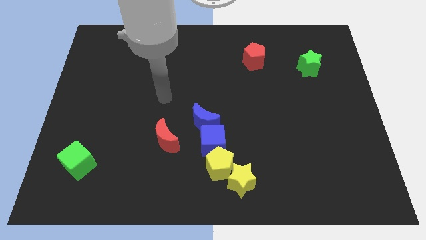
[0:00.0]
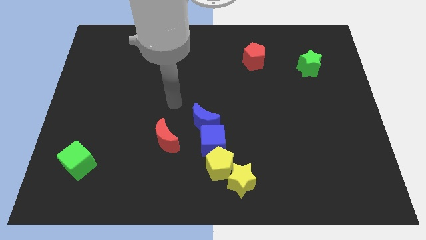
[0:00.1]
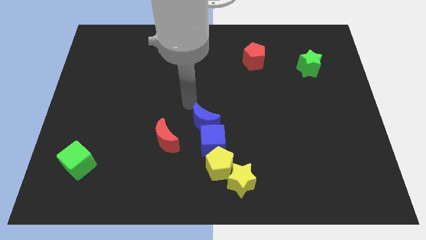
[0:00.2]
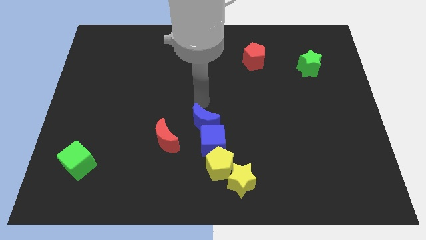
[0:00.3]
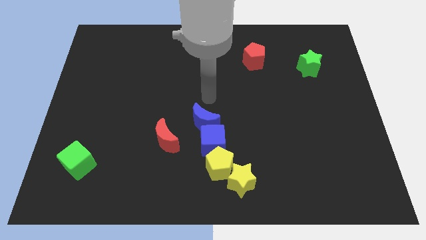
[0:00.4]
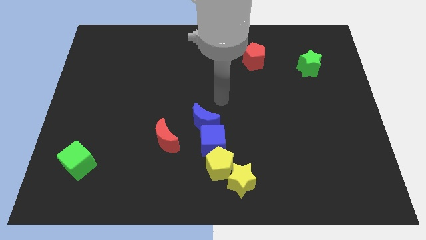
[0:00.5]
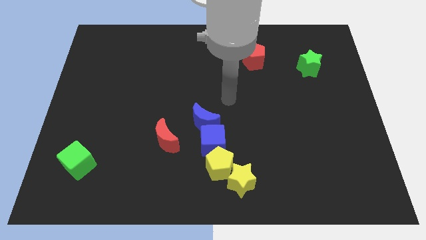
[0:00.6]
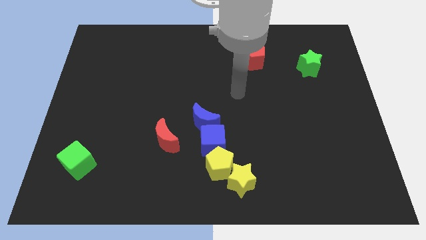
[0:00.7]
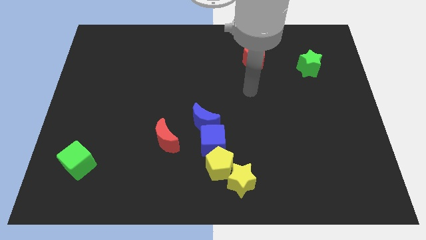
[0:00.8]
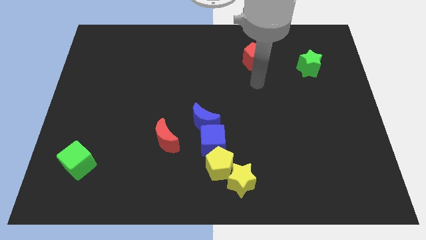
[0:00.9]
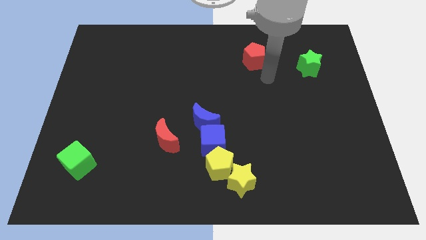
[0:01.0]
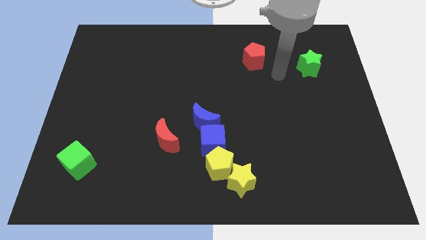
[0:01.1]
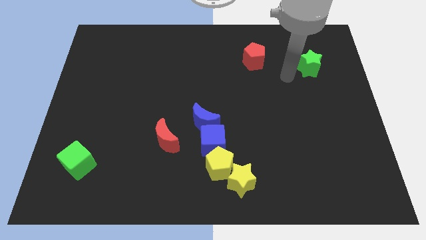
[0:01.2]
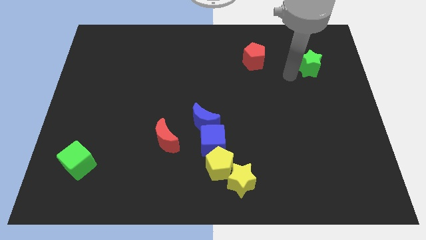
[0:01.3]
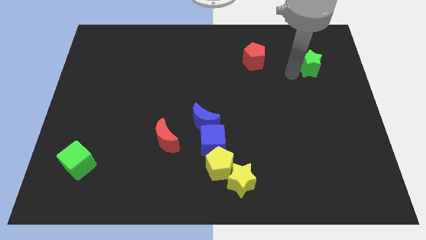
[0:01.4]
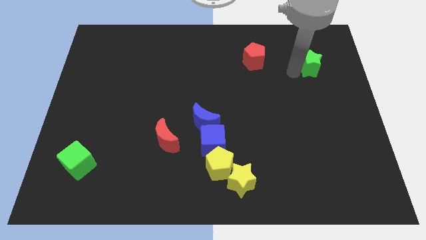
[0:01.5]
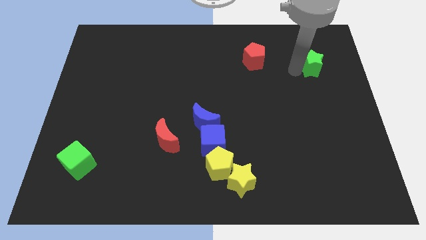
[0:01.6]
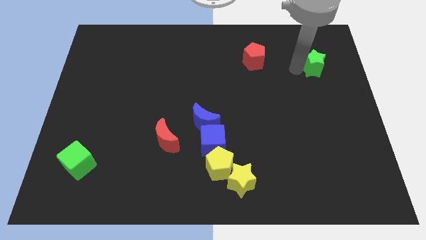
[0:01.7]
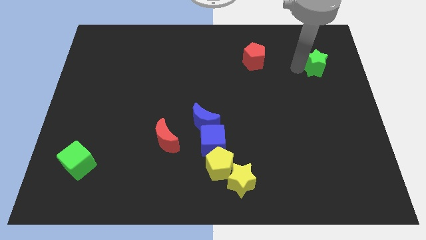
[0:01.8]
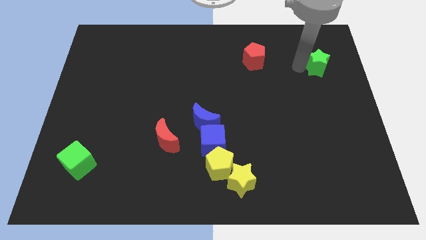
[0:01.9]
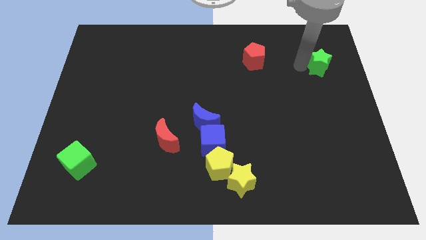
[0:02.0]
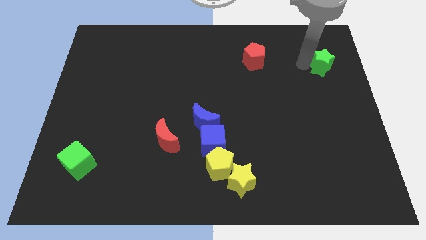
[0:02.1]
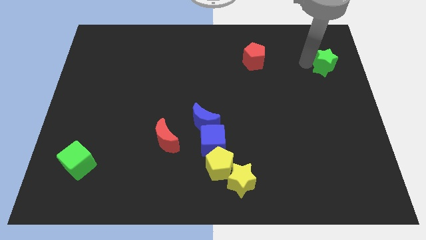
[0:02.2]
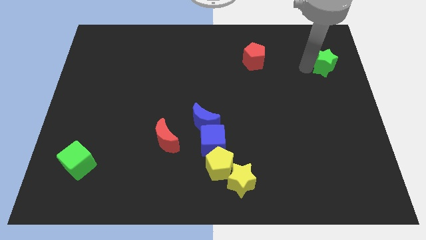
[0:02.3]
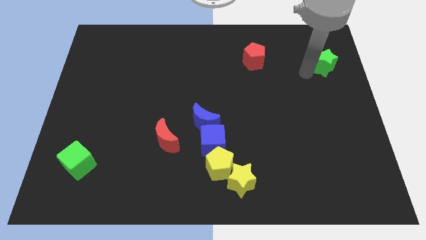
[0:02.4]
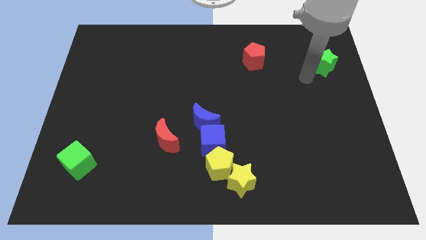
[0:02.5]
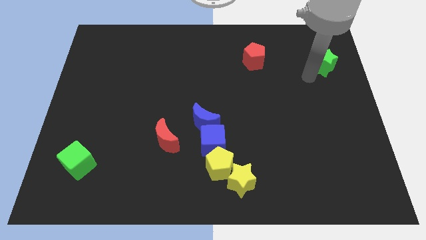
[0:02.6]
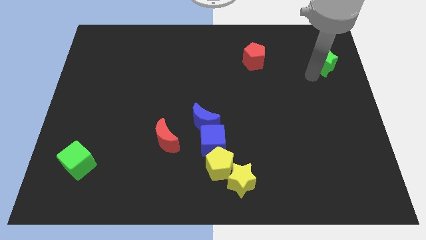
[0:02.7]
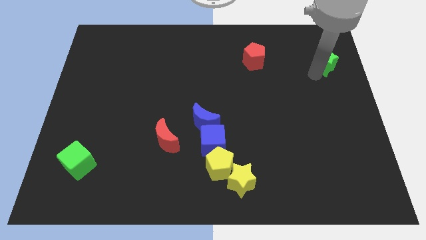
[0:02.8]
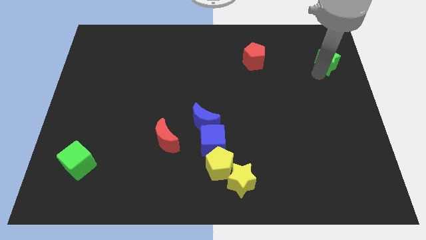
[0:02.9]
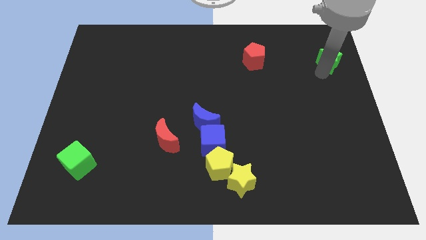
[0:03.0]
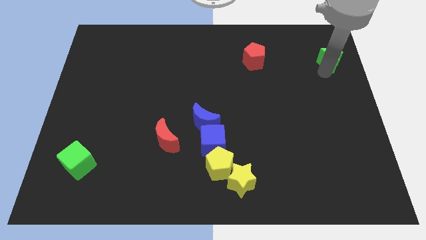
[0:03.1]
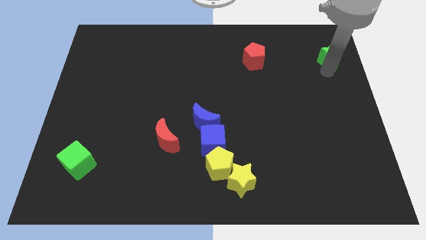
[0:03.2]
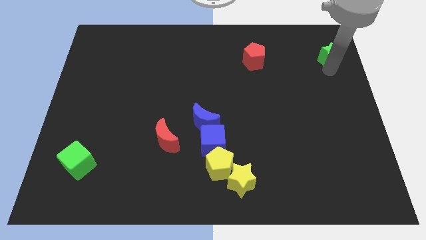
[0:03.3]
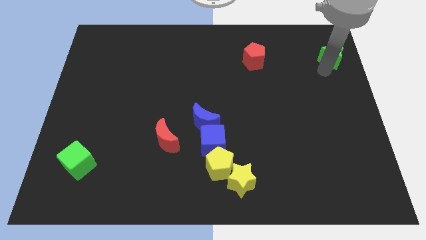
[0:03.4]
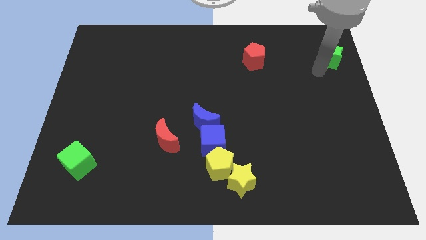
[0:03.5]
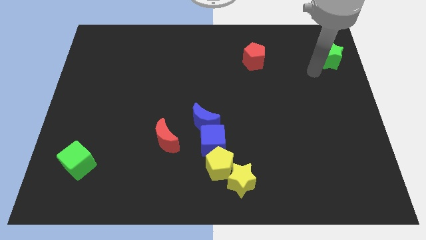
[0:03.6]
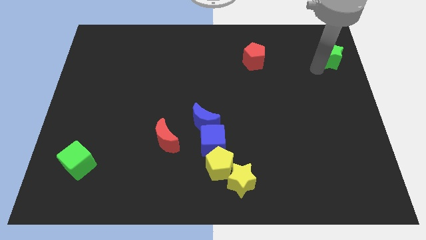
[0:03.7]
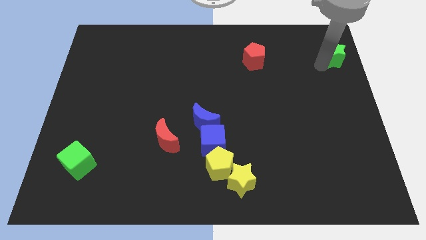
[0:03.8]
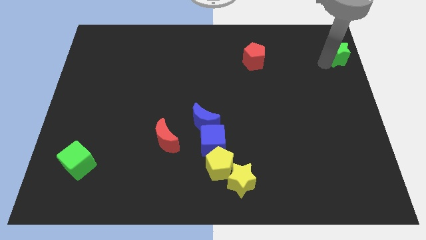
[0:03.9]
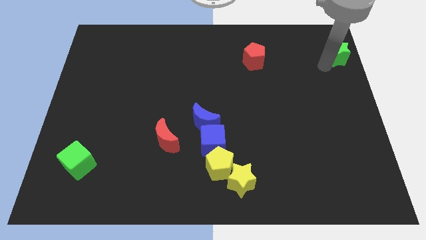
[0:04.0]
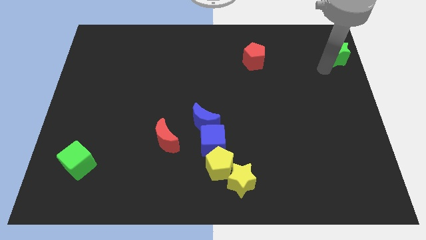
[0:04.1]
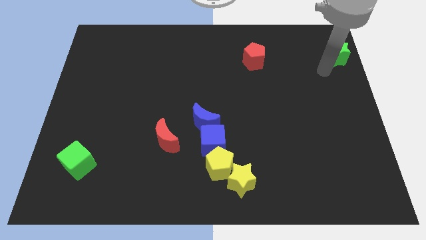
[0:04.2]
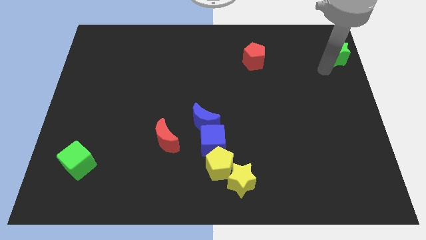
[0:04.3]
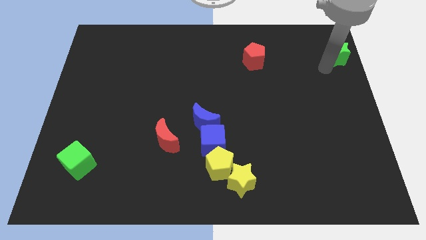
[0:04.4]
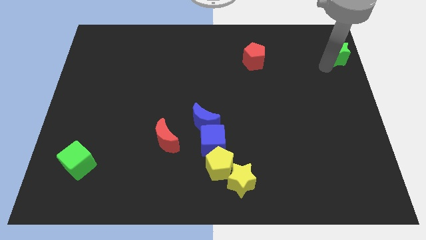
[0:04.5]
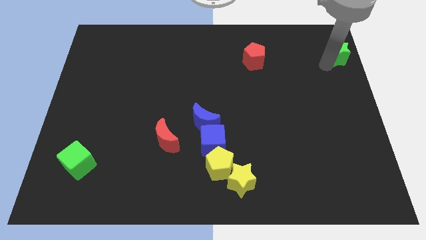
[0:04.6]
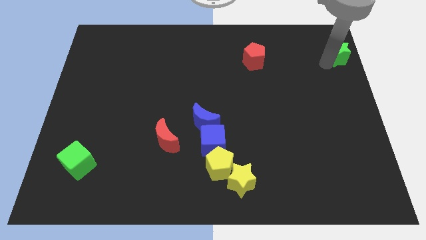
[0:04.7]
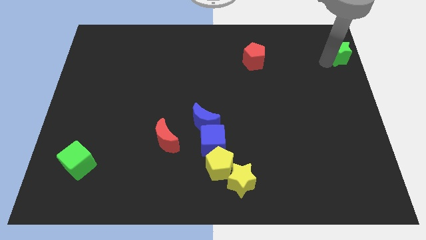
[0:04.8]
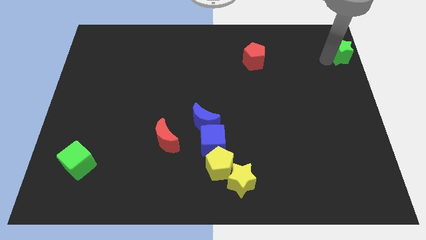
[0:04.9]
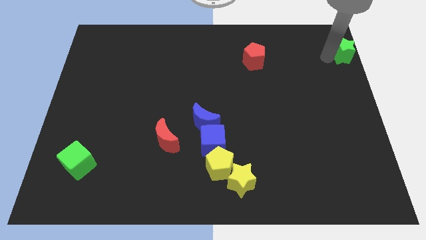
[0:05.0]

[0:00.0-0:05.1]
slide the green star to the upper right corner

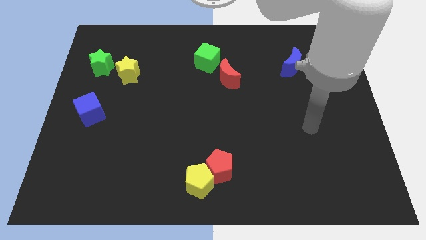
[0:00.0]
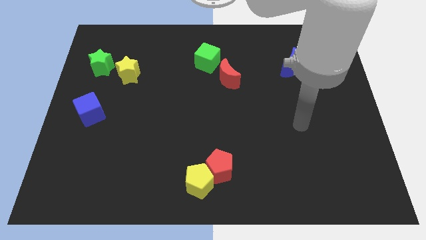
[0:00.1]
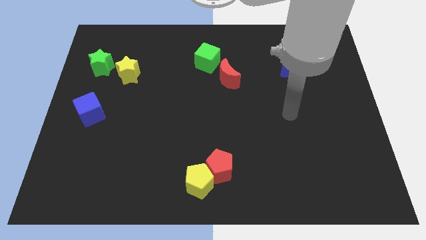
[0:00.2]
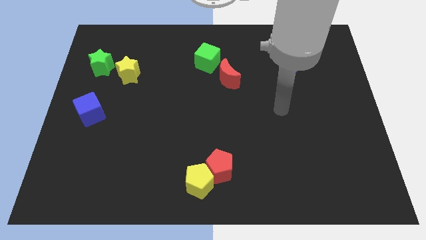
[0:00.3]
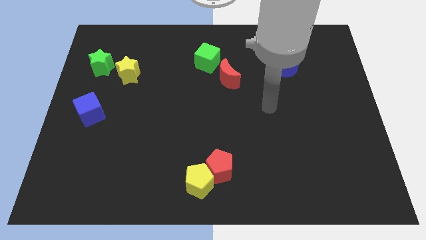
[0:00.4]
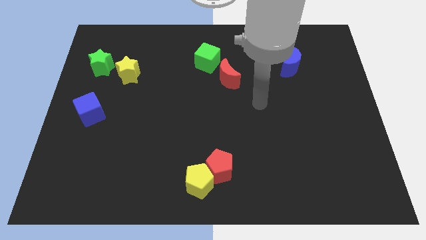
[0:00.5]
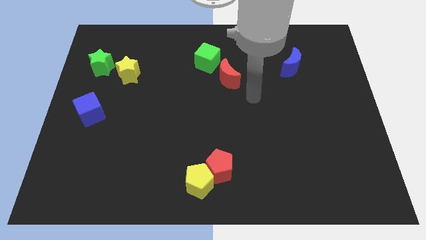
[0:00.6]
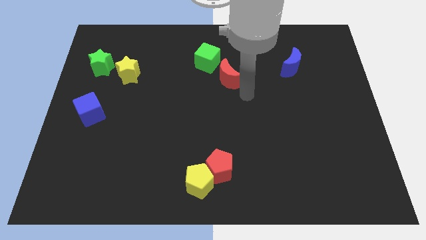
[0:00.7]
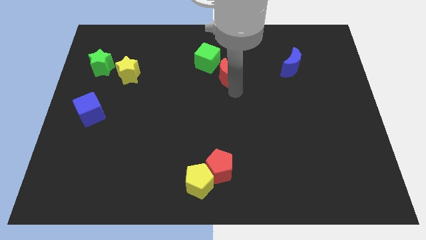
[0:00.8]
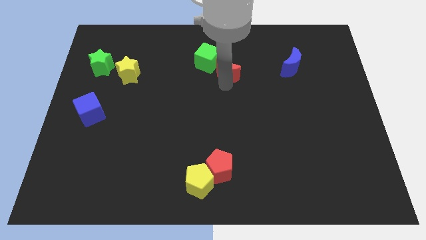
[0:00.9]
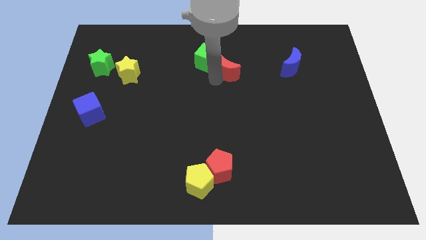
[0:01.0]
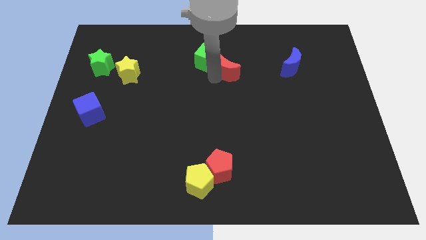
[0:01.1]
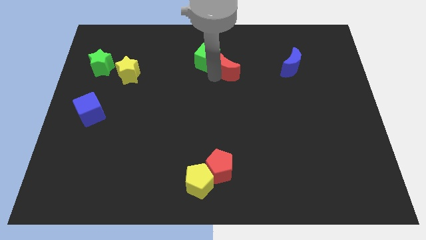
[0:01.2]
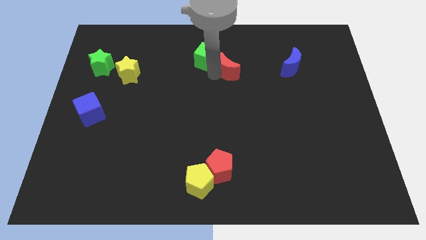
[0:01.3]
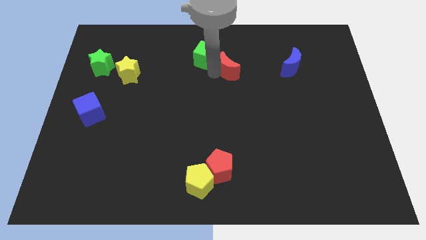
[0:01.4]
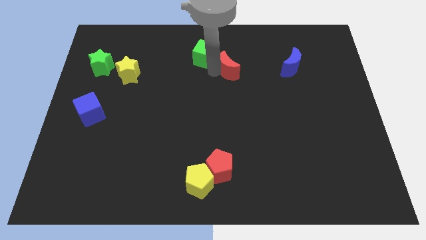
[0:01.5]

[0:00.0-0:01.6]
push the green cube to the top
